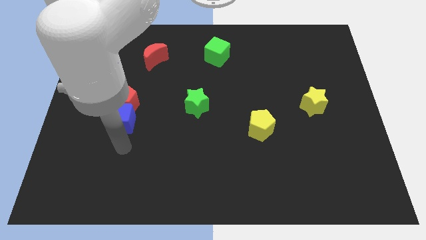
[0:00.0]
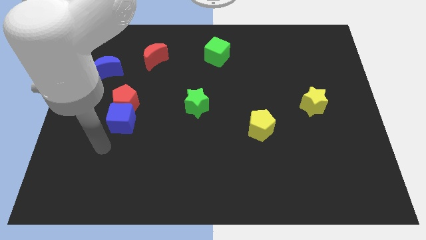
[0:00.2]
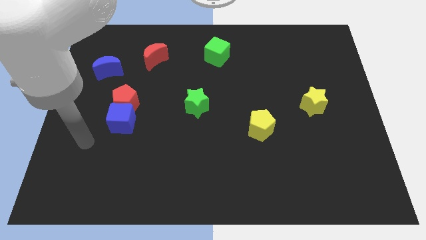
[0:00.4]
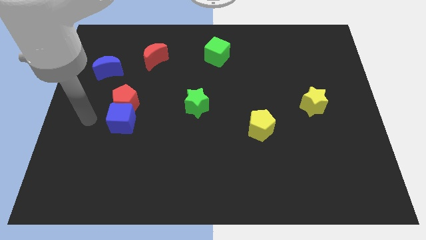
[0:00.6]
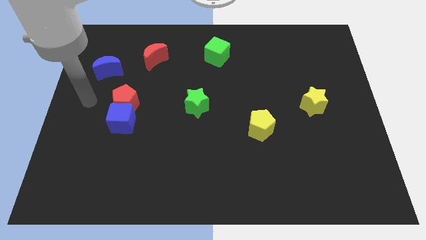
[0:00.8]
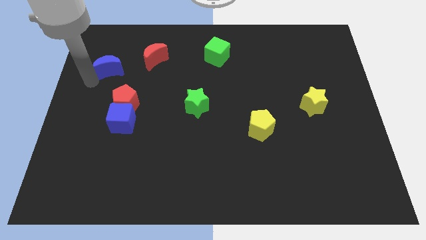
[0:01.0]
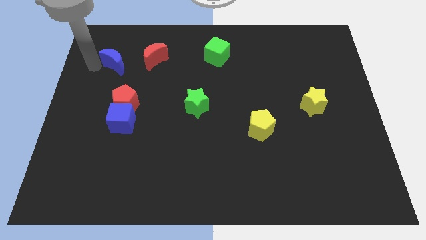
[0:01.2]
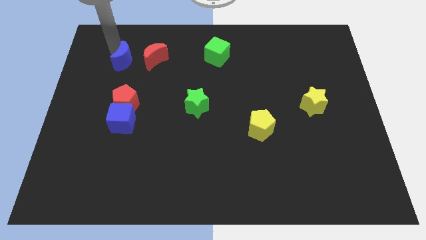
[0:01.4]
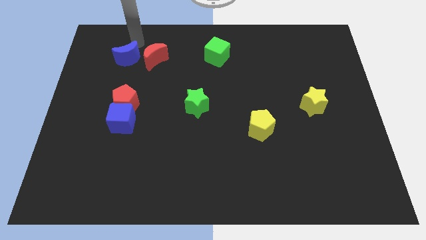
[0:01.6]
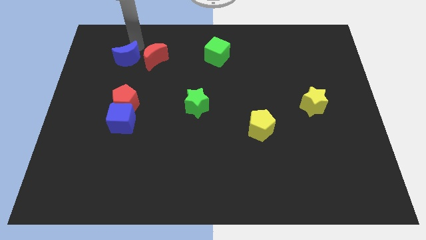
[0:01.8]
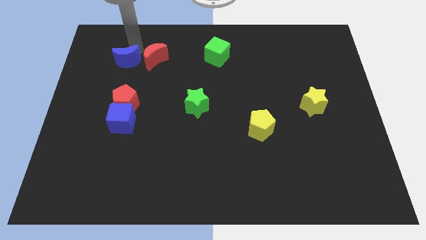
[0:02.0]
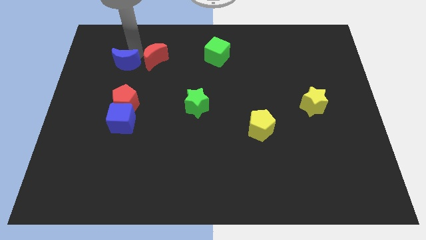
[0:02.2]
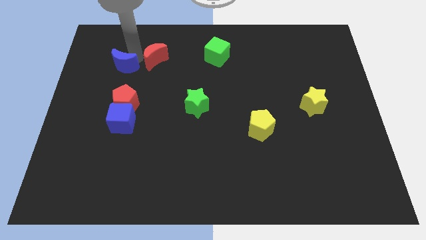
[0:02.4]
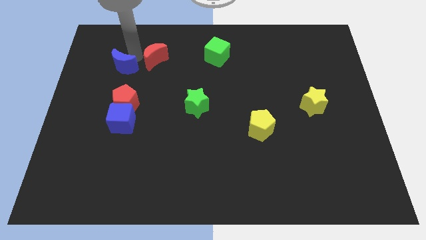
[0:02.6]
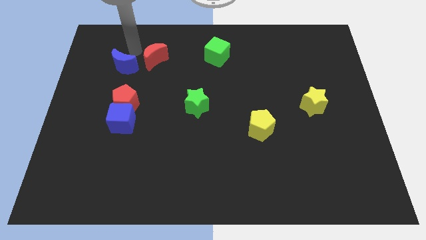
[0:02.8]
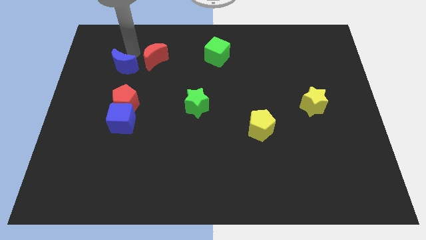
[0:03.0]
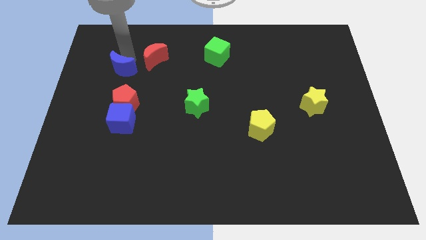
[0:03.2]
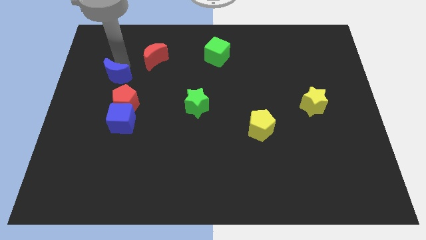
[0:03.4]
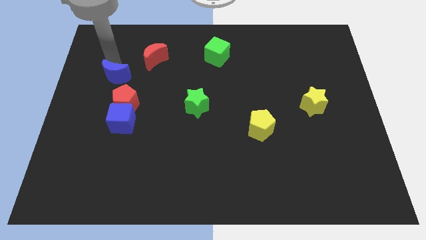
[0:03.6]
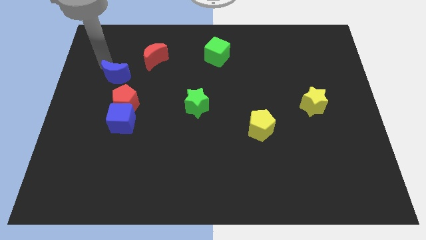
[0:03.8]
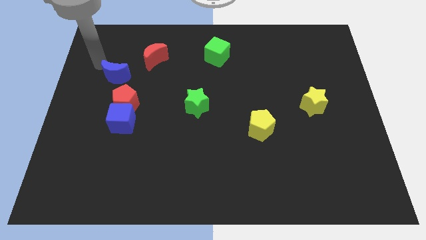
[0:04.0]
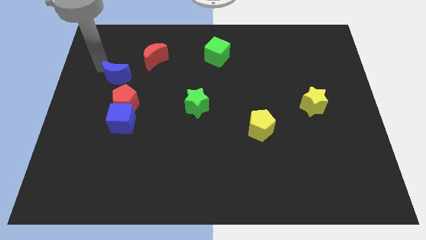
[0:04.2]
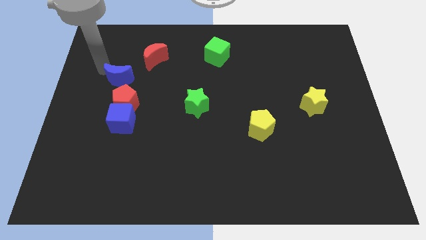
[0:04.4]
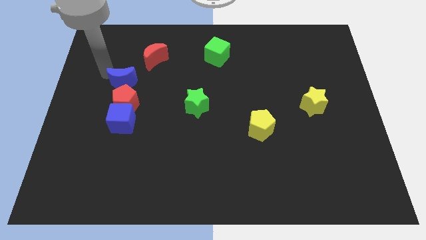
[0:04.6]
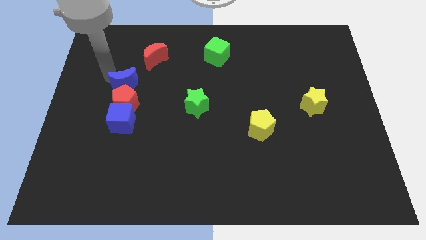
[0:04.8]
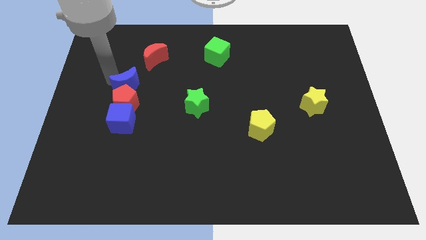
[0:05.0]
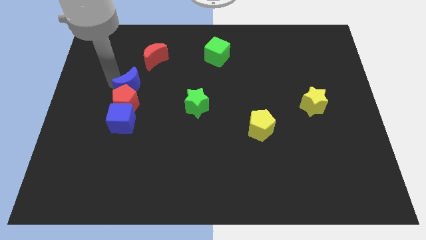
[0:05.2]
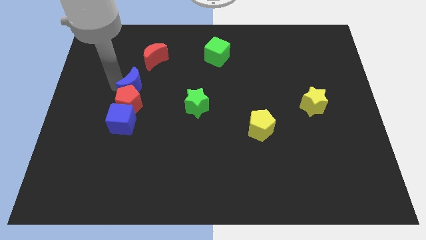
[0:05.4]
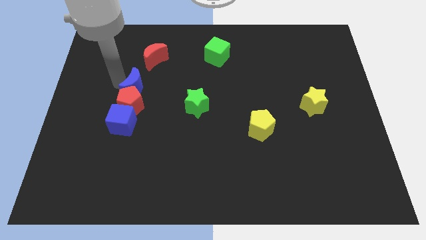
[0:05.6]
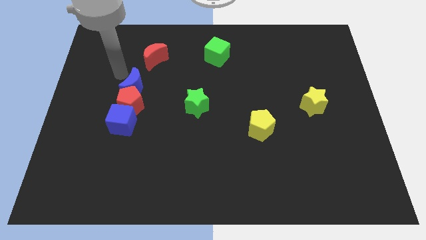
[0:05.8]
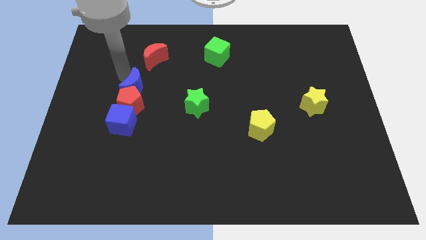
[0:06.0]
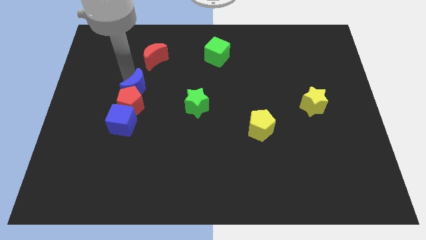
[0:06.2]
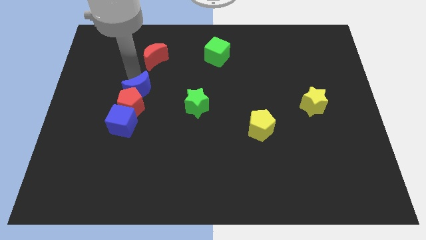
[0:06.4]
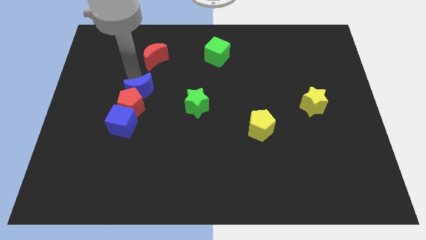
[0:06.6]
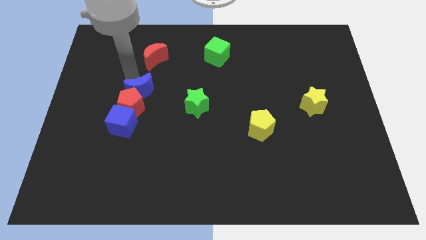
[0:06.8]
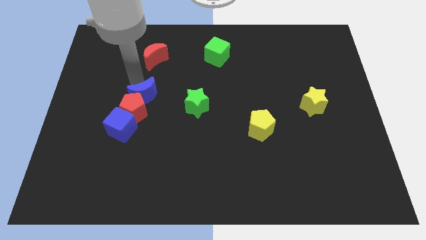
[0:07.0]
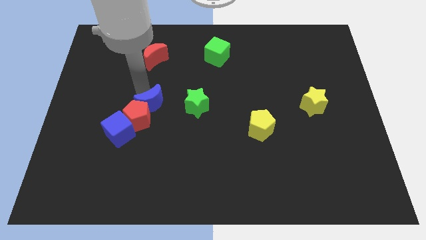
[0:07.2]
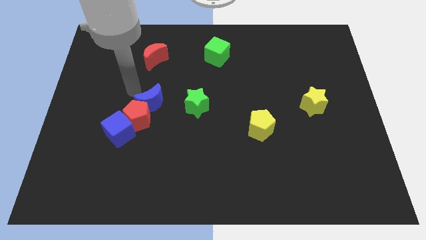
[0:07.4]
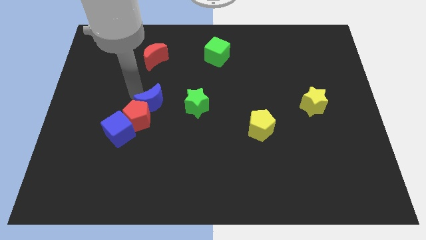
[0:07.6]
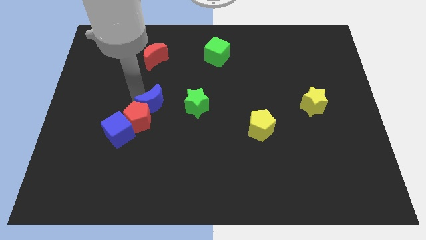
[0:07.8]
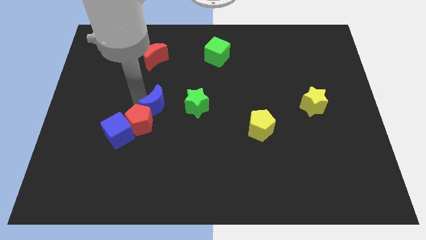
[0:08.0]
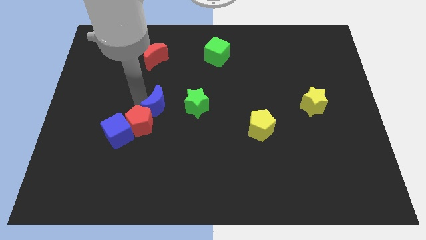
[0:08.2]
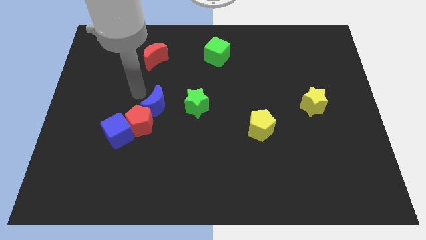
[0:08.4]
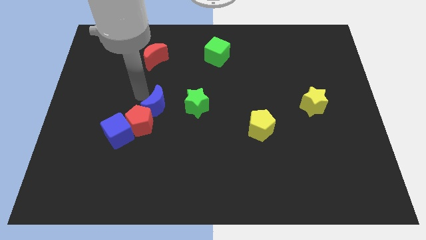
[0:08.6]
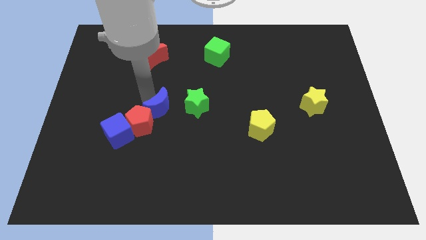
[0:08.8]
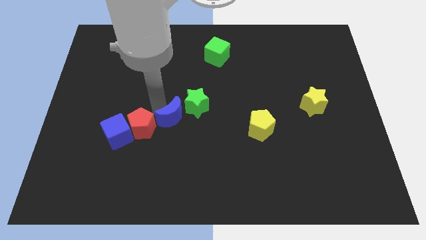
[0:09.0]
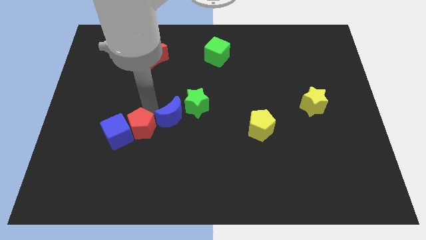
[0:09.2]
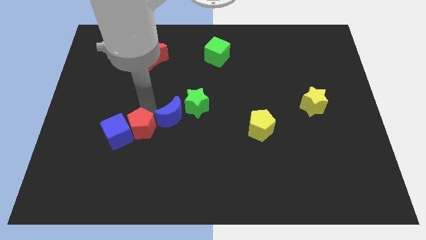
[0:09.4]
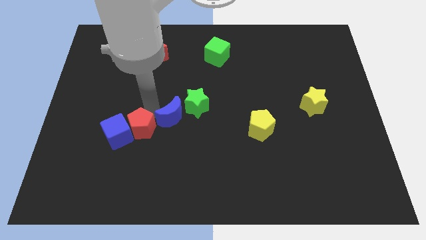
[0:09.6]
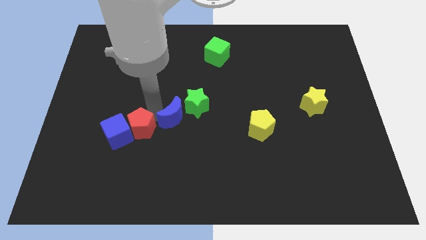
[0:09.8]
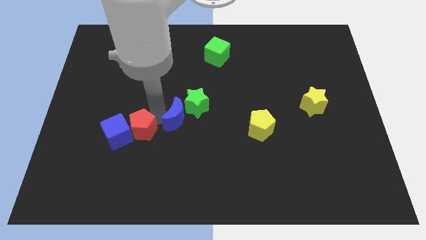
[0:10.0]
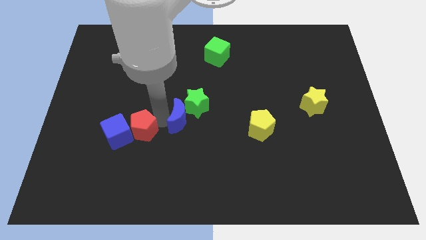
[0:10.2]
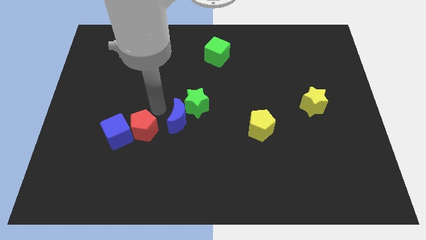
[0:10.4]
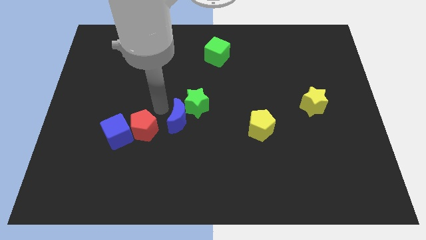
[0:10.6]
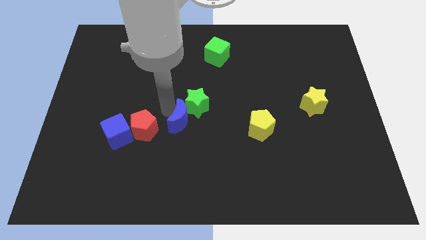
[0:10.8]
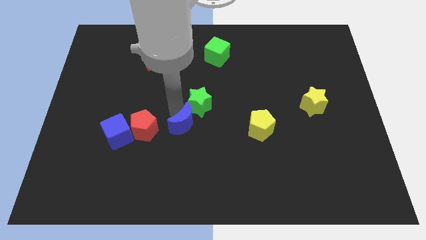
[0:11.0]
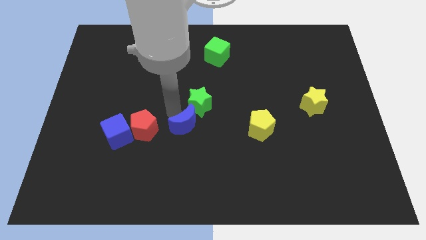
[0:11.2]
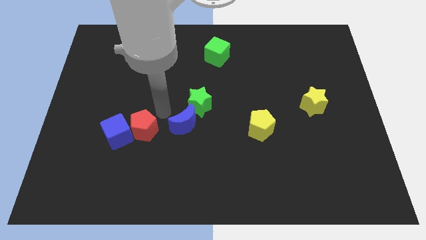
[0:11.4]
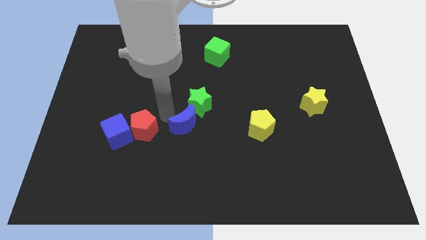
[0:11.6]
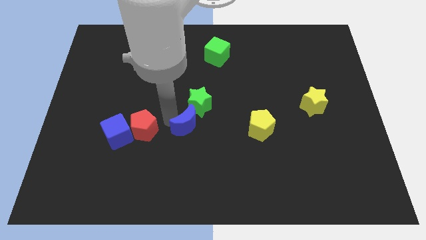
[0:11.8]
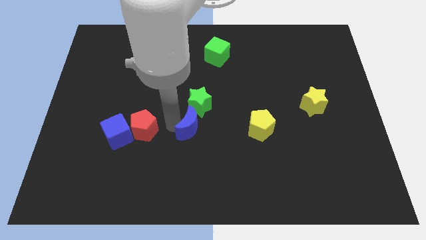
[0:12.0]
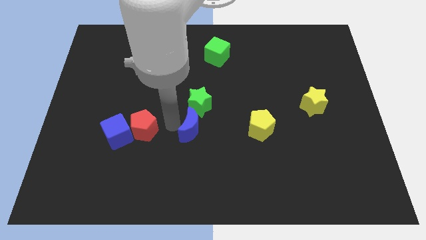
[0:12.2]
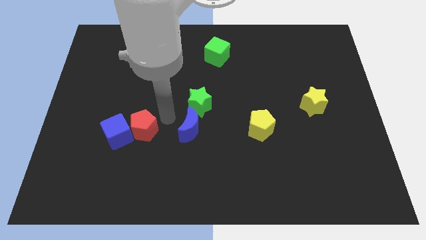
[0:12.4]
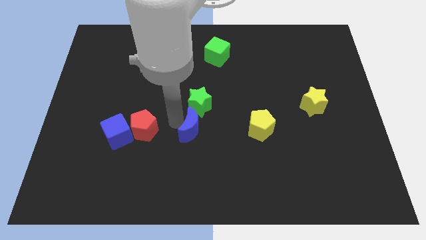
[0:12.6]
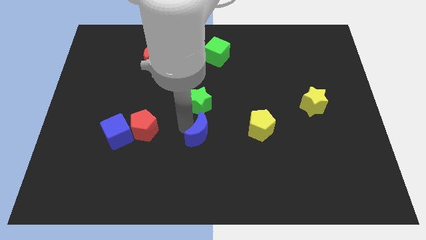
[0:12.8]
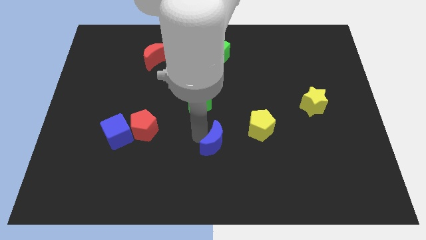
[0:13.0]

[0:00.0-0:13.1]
move the blue moon diagonally down and to the left of the yellow pentagon

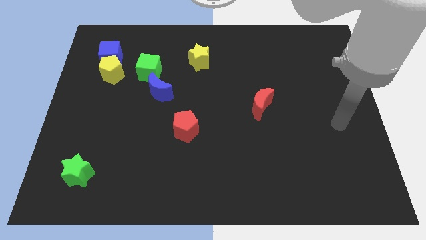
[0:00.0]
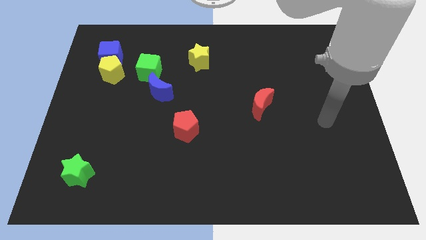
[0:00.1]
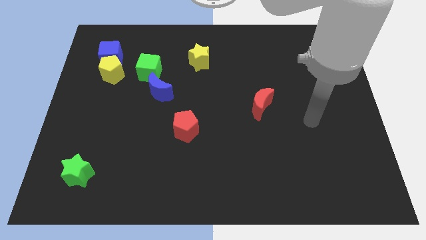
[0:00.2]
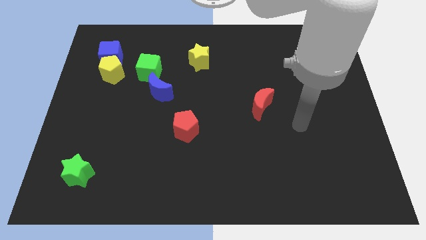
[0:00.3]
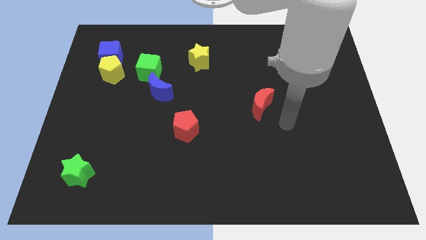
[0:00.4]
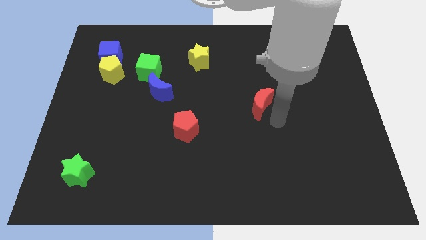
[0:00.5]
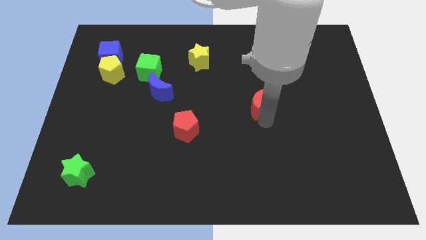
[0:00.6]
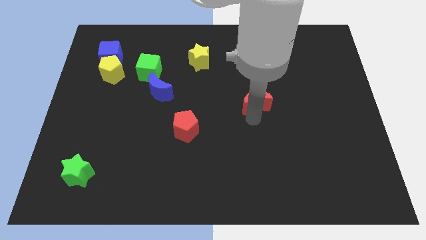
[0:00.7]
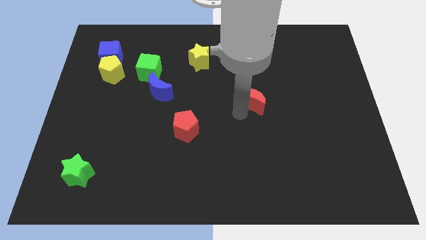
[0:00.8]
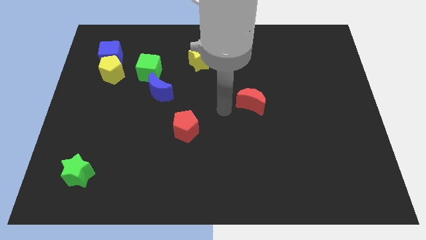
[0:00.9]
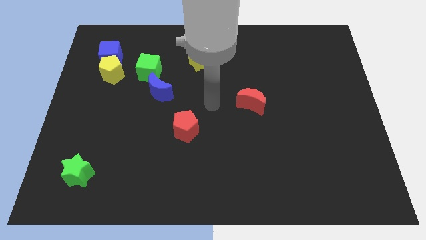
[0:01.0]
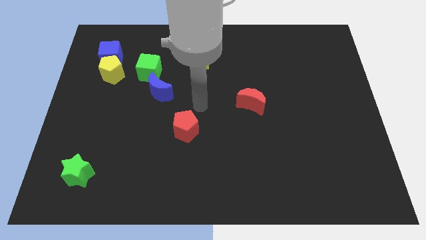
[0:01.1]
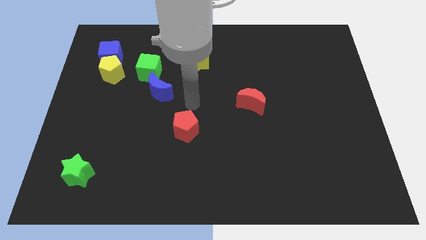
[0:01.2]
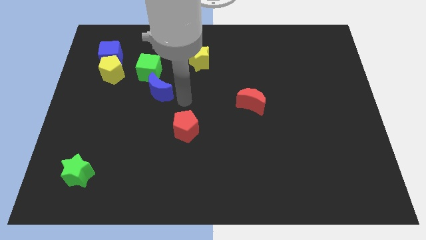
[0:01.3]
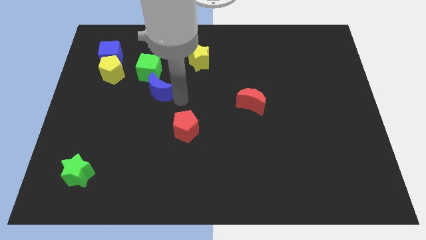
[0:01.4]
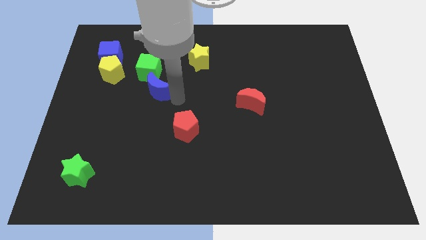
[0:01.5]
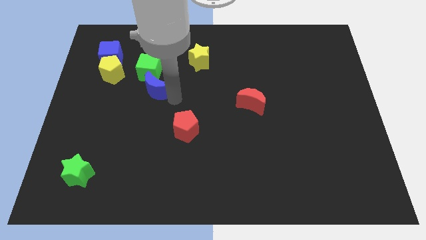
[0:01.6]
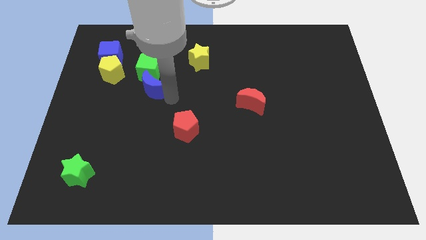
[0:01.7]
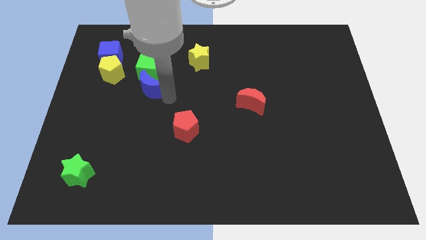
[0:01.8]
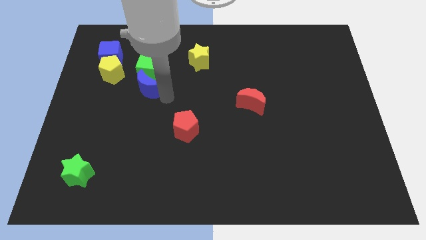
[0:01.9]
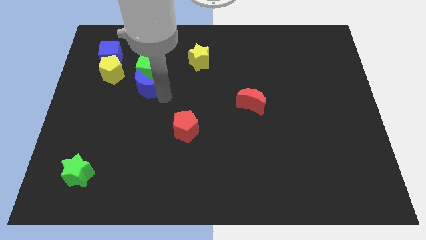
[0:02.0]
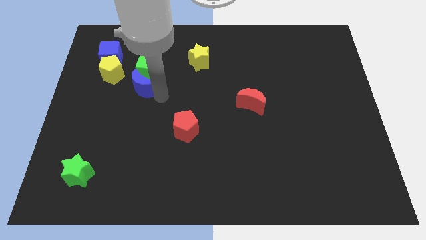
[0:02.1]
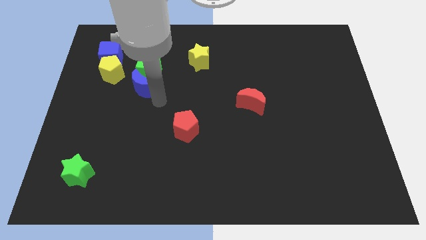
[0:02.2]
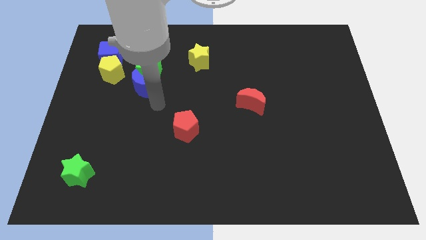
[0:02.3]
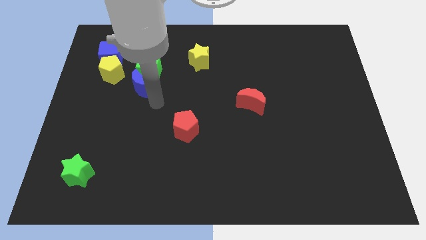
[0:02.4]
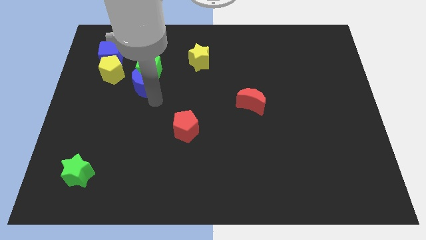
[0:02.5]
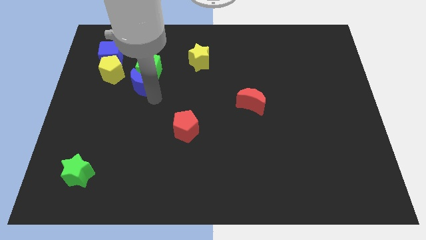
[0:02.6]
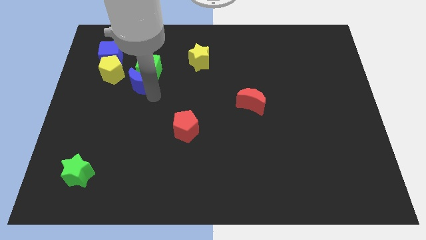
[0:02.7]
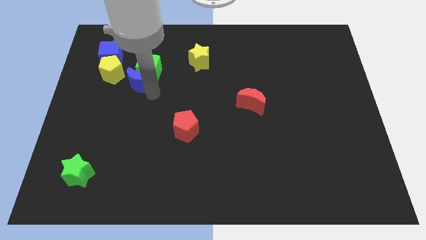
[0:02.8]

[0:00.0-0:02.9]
push the blue moon to the bottom right side of the blue cube
